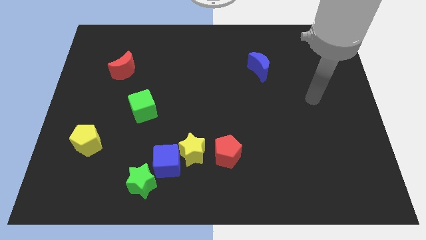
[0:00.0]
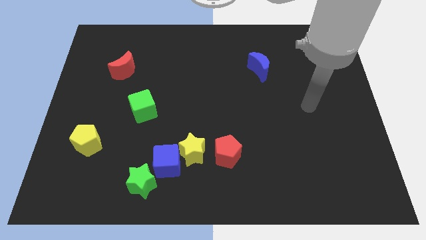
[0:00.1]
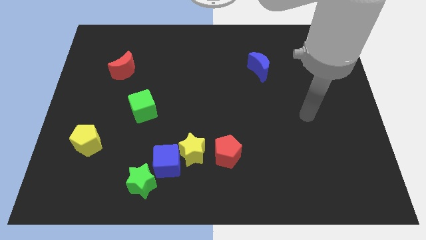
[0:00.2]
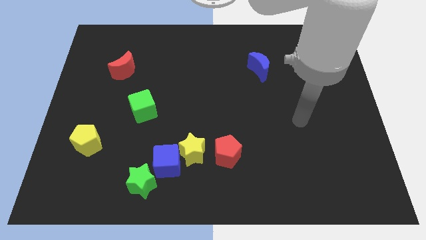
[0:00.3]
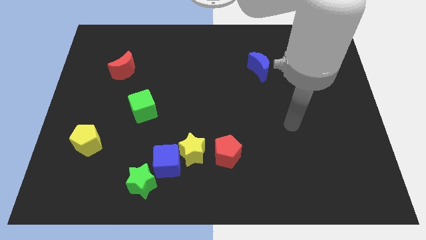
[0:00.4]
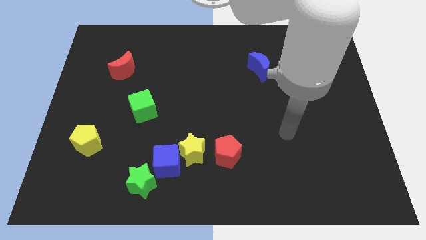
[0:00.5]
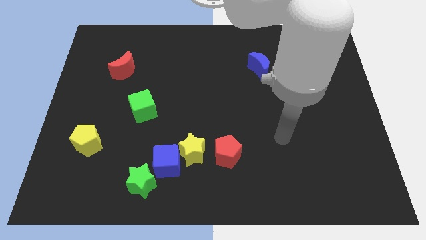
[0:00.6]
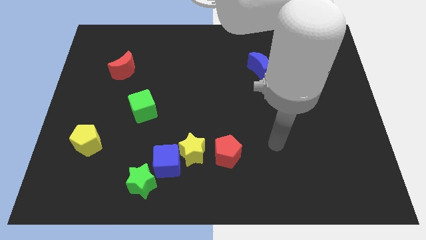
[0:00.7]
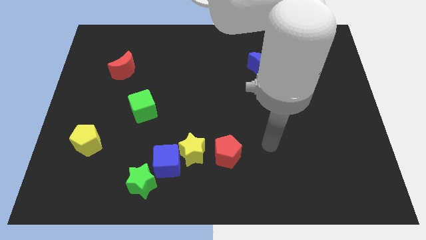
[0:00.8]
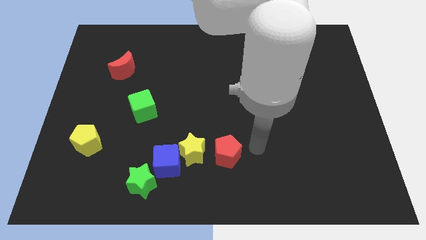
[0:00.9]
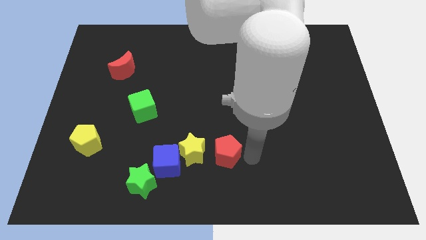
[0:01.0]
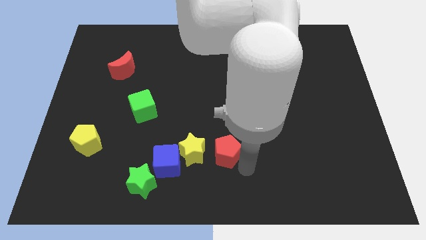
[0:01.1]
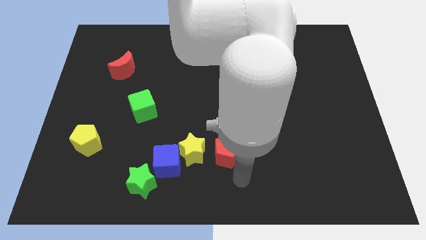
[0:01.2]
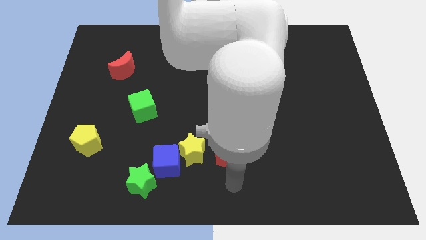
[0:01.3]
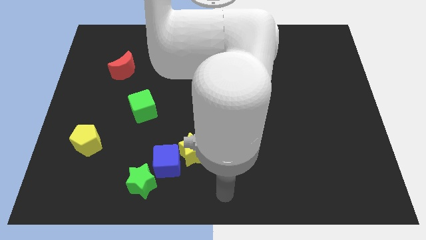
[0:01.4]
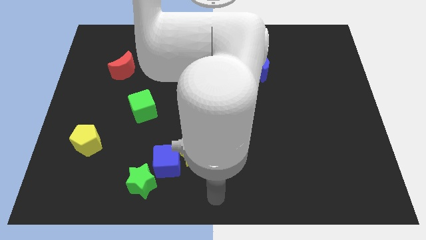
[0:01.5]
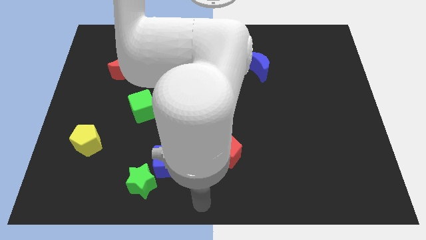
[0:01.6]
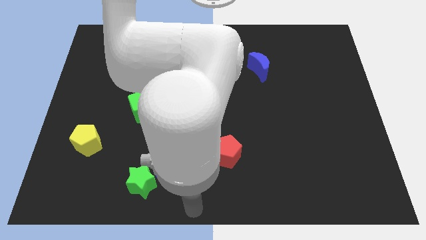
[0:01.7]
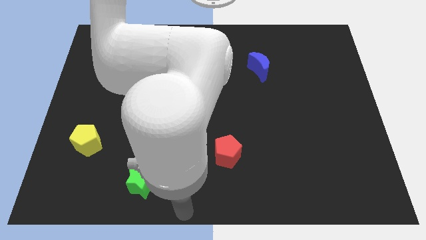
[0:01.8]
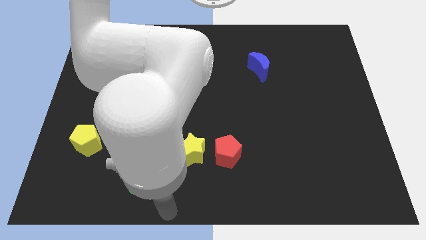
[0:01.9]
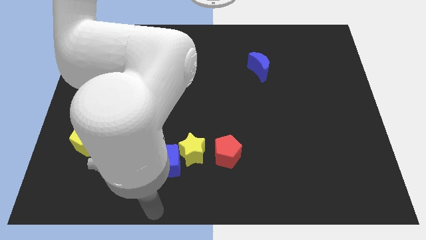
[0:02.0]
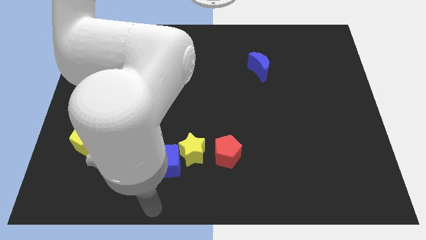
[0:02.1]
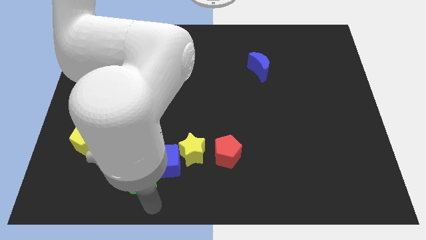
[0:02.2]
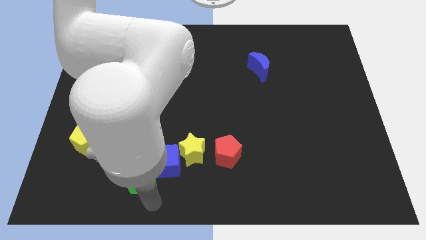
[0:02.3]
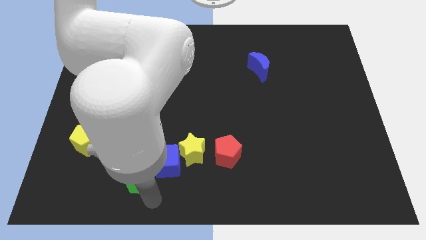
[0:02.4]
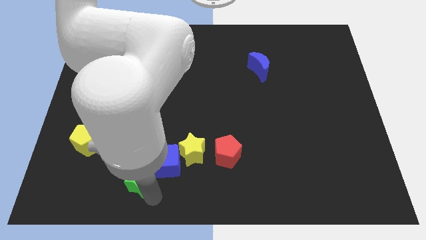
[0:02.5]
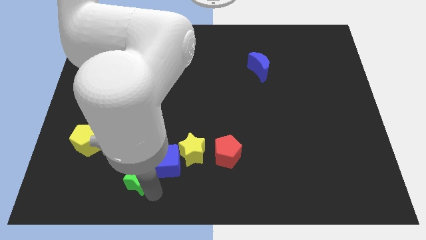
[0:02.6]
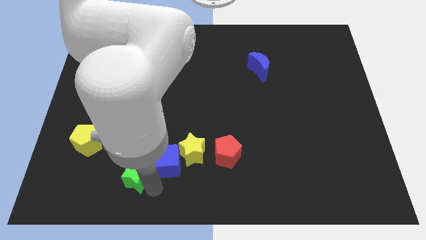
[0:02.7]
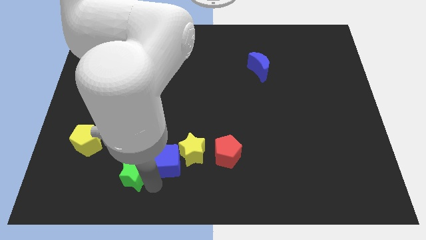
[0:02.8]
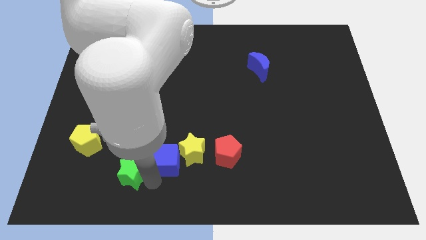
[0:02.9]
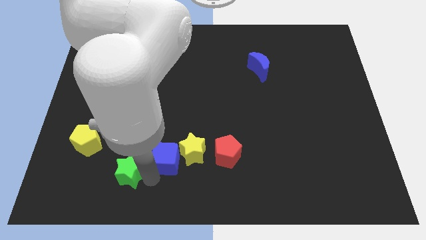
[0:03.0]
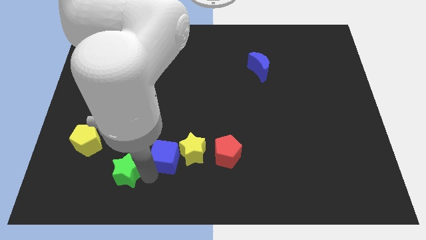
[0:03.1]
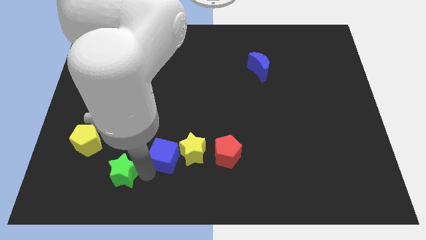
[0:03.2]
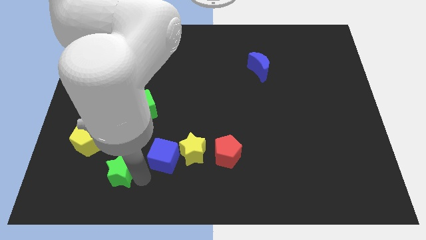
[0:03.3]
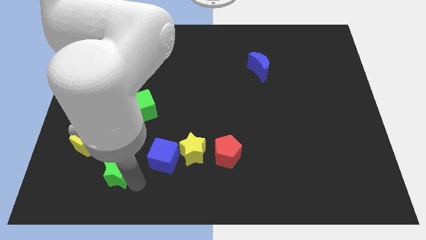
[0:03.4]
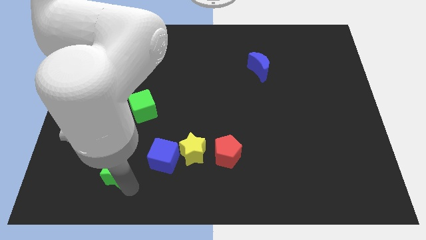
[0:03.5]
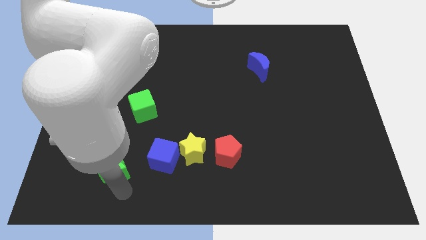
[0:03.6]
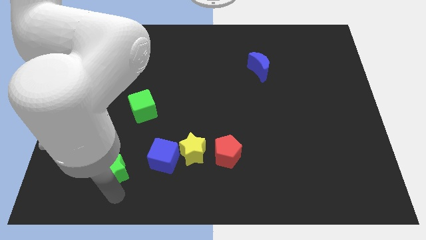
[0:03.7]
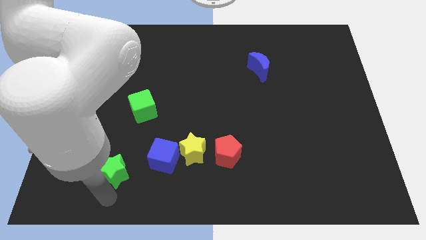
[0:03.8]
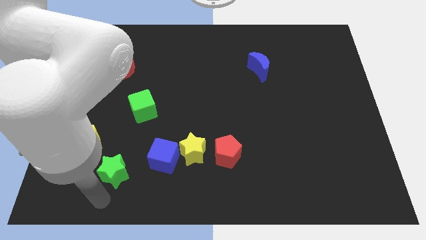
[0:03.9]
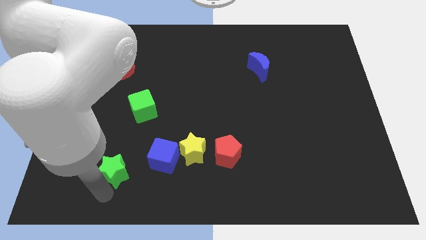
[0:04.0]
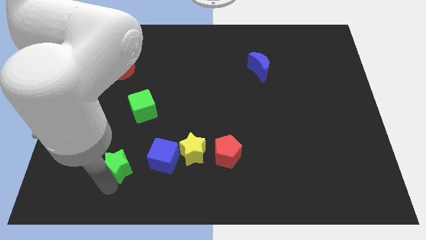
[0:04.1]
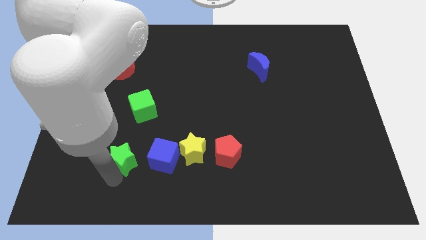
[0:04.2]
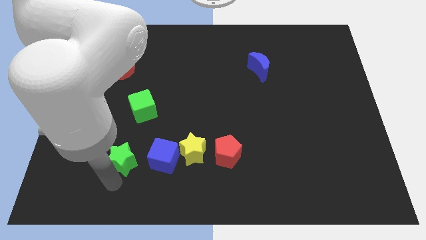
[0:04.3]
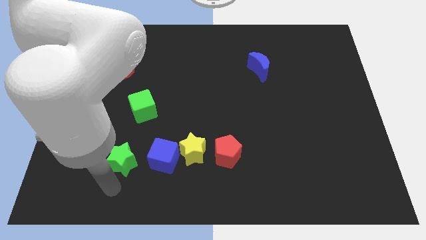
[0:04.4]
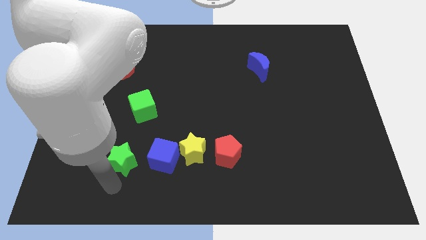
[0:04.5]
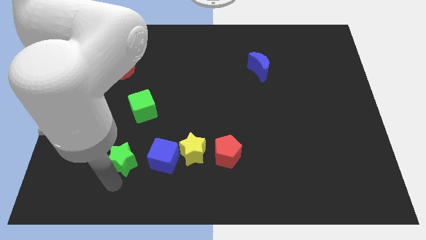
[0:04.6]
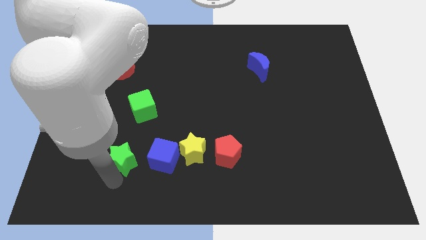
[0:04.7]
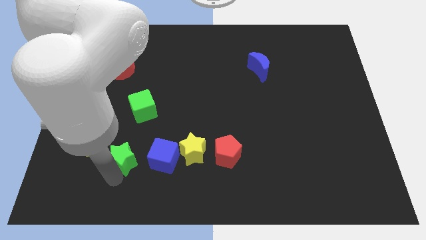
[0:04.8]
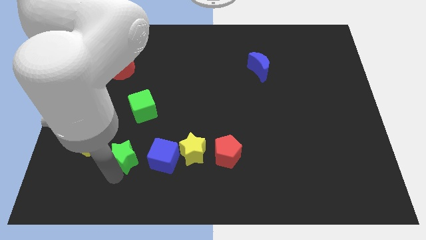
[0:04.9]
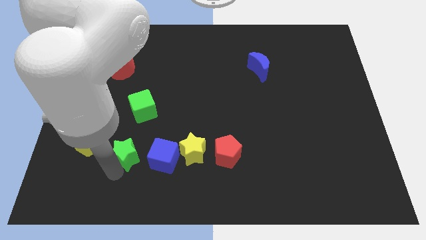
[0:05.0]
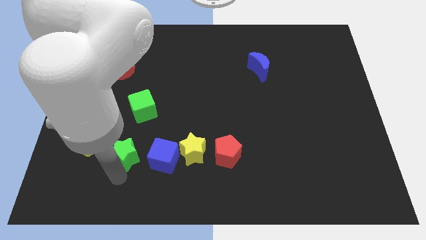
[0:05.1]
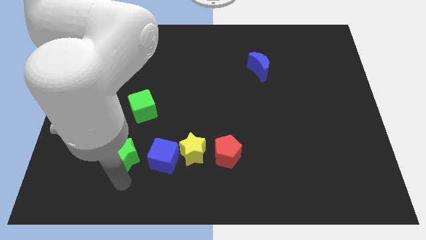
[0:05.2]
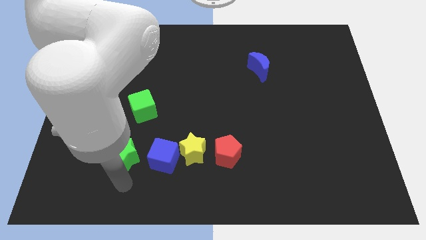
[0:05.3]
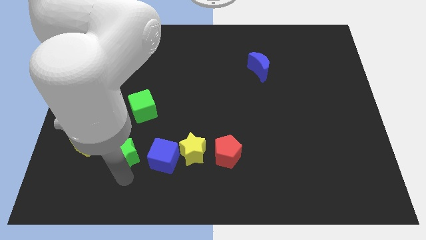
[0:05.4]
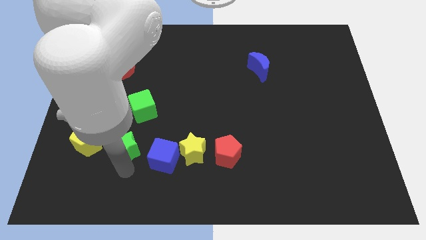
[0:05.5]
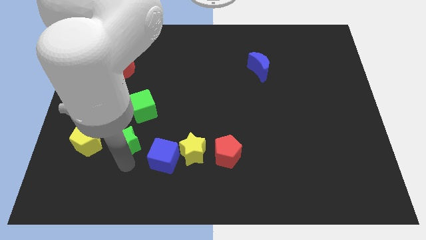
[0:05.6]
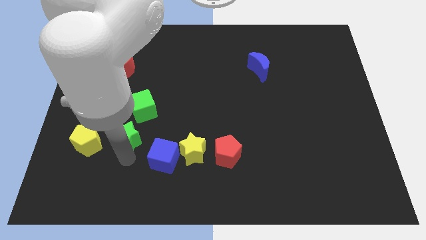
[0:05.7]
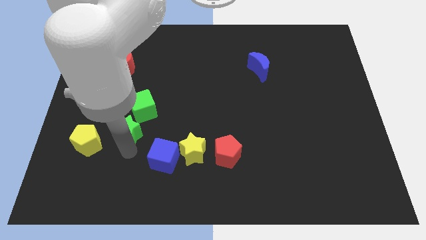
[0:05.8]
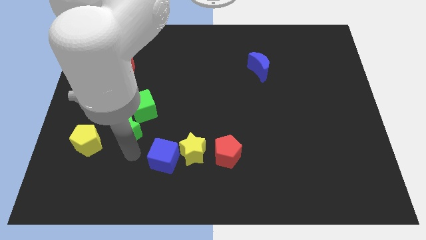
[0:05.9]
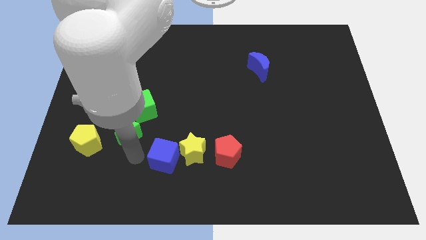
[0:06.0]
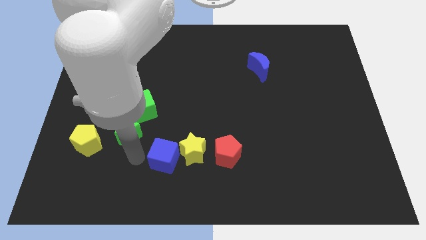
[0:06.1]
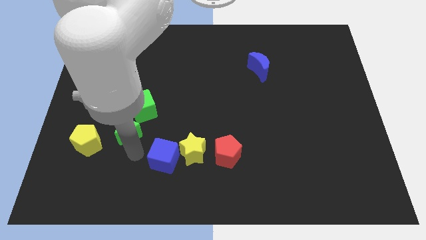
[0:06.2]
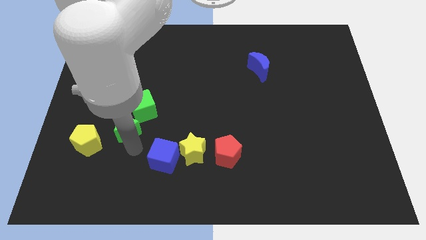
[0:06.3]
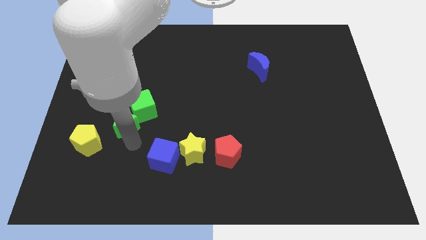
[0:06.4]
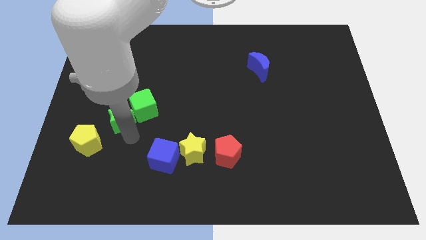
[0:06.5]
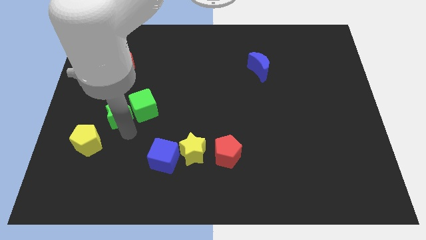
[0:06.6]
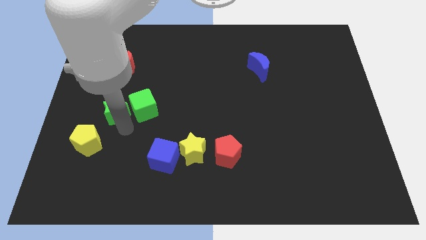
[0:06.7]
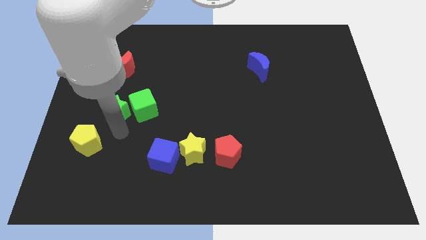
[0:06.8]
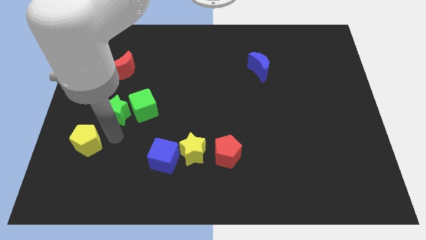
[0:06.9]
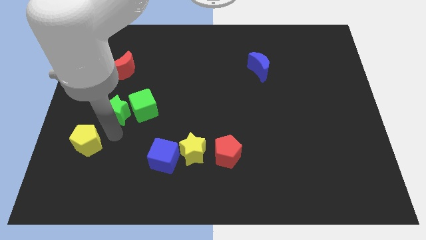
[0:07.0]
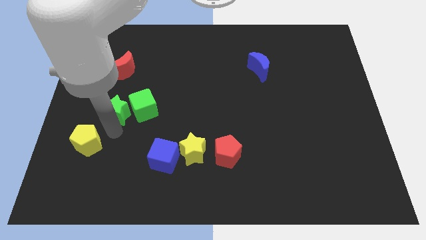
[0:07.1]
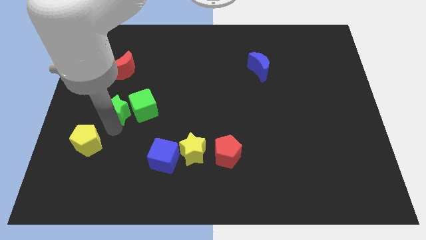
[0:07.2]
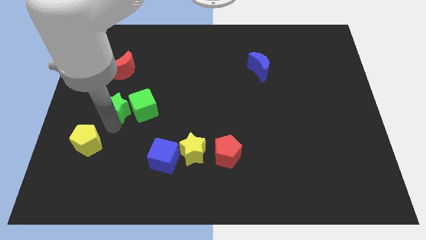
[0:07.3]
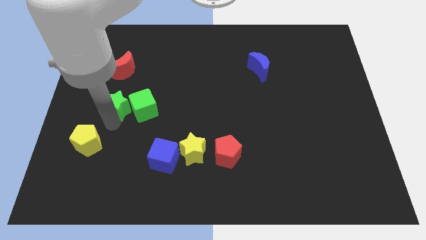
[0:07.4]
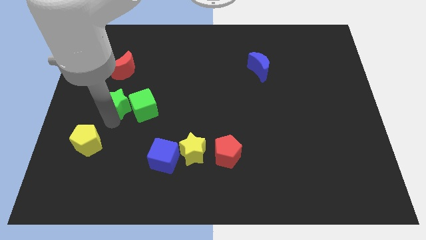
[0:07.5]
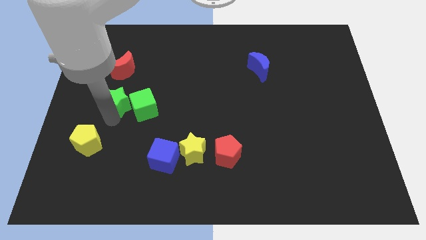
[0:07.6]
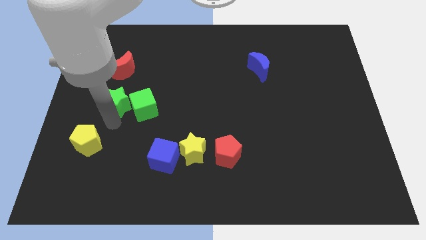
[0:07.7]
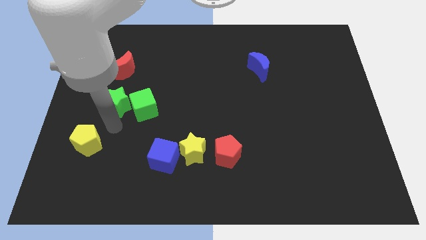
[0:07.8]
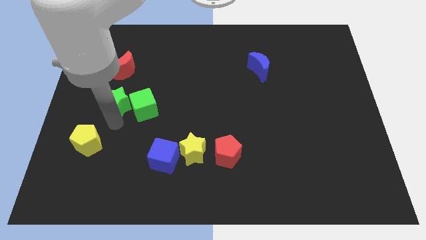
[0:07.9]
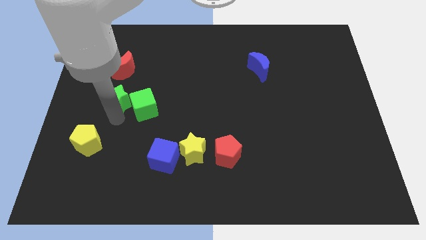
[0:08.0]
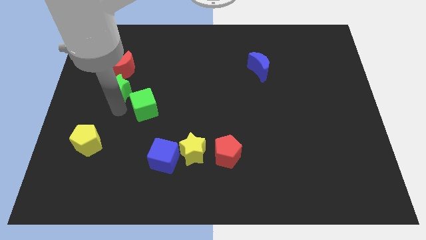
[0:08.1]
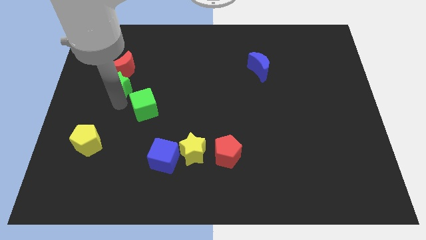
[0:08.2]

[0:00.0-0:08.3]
slide the green star next to the red moon

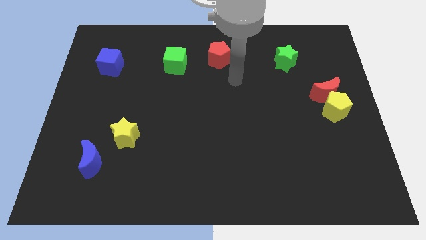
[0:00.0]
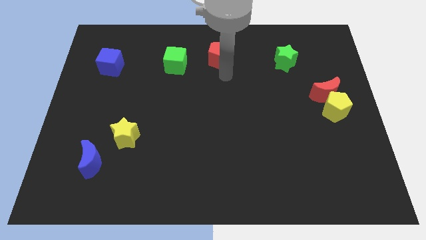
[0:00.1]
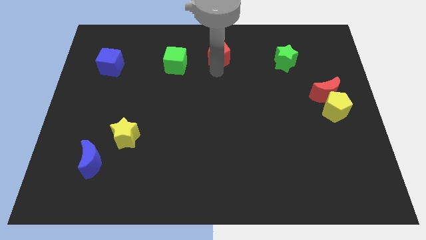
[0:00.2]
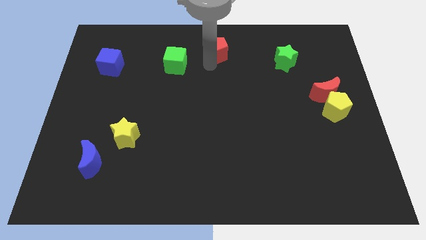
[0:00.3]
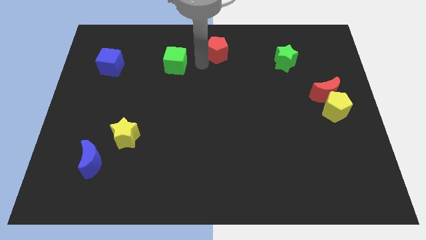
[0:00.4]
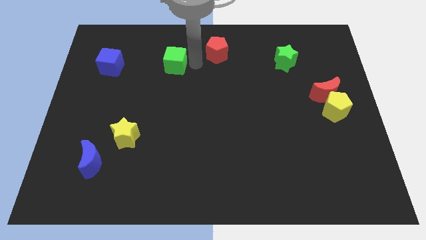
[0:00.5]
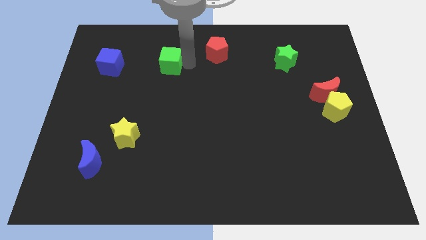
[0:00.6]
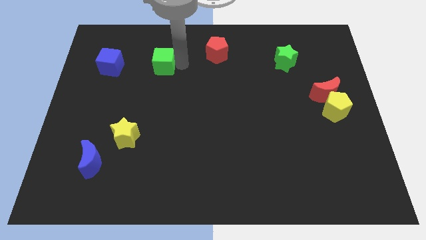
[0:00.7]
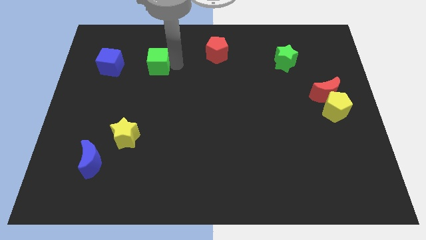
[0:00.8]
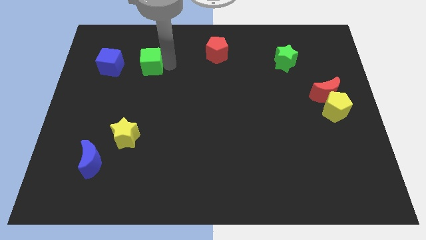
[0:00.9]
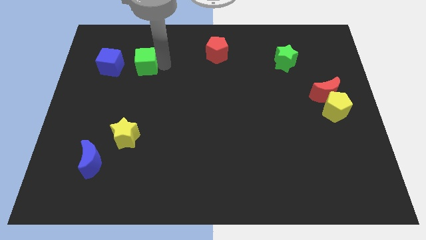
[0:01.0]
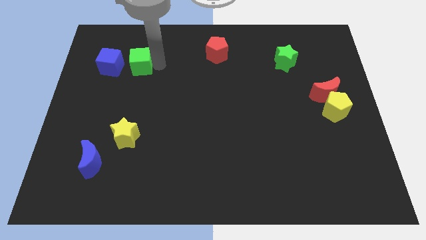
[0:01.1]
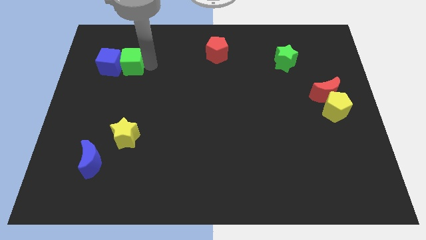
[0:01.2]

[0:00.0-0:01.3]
push the green cube to the blue cube
